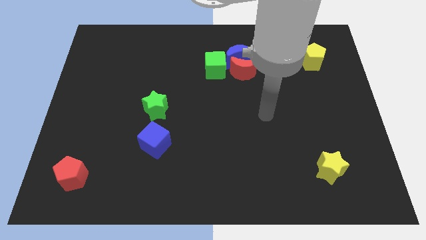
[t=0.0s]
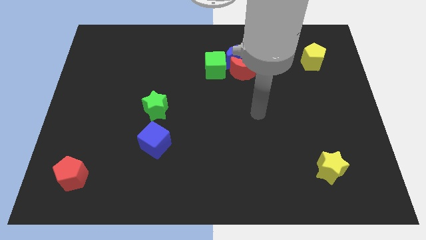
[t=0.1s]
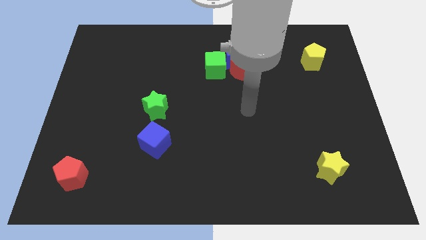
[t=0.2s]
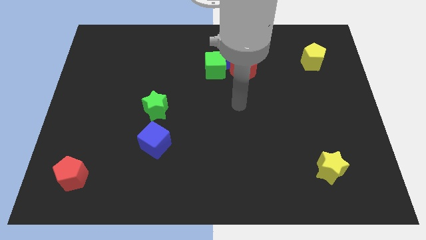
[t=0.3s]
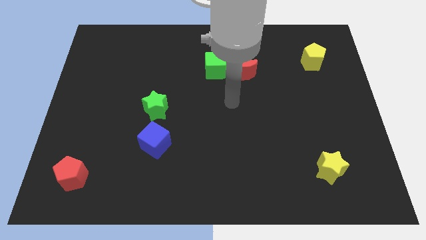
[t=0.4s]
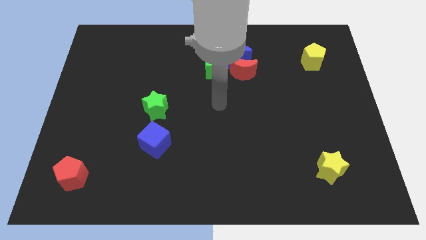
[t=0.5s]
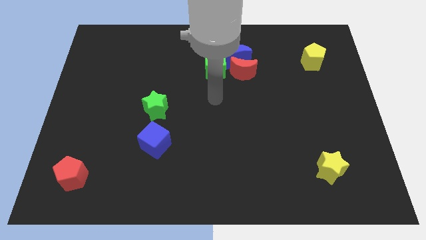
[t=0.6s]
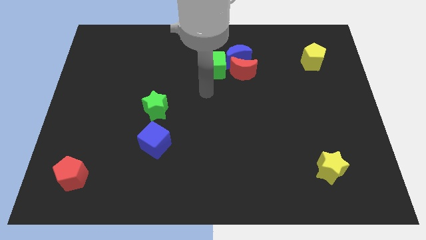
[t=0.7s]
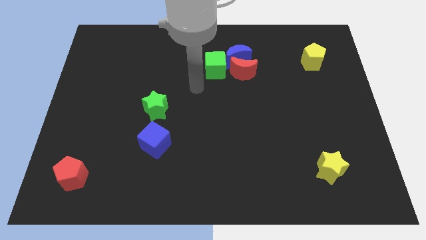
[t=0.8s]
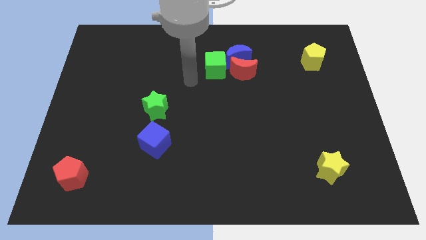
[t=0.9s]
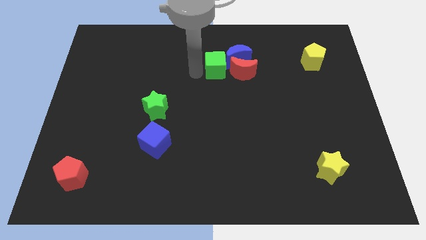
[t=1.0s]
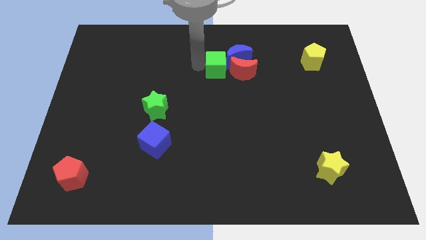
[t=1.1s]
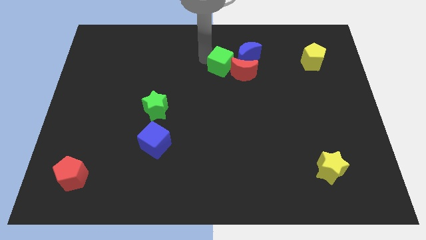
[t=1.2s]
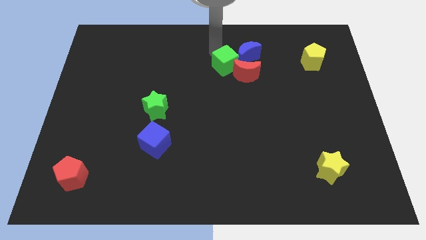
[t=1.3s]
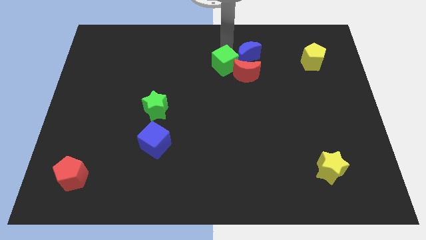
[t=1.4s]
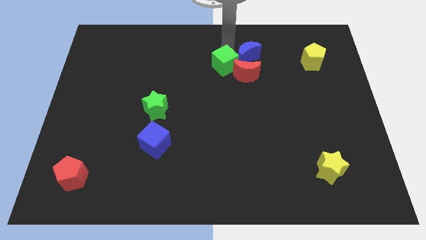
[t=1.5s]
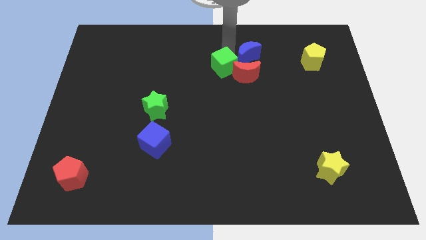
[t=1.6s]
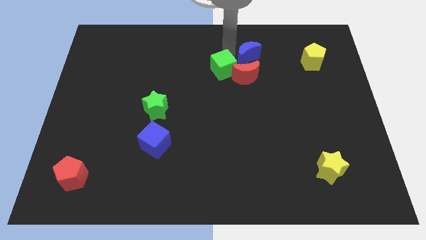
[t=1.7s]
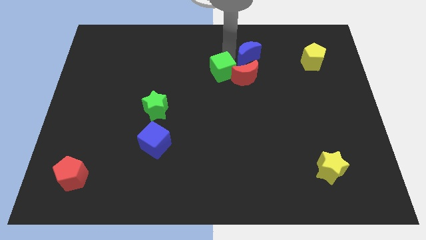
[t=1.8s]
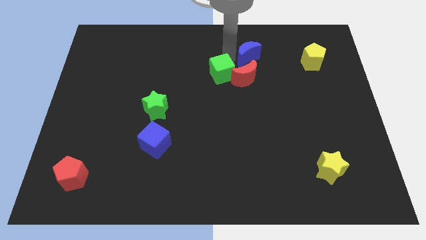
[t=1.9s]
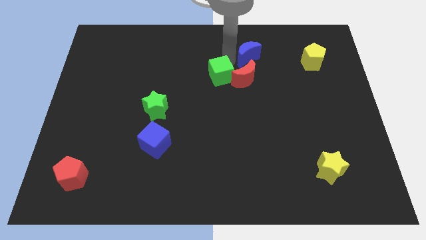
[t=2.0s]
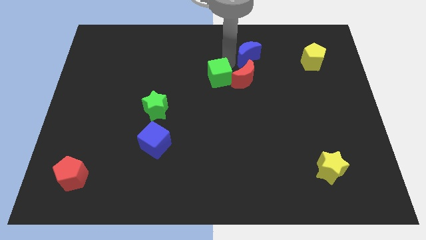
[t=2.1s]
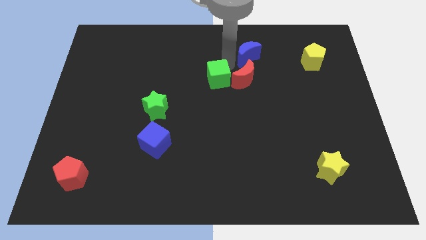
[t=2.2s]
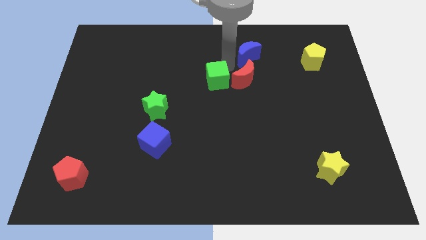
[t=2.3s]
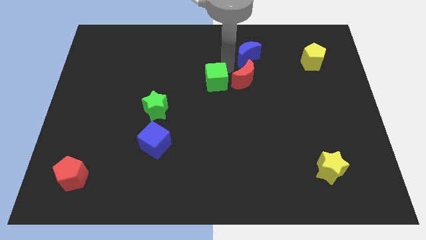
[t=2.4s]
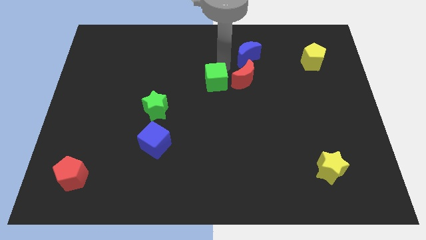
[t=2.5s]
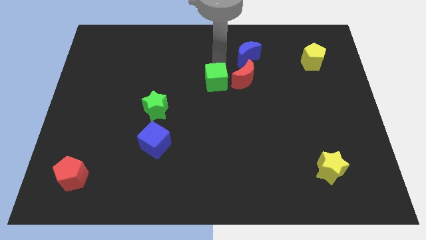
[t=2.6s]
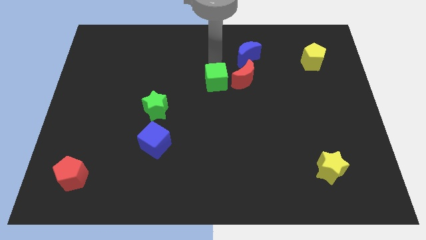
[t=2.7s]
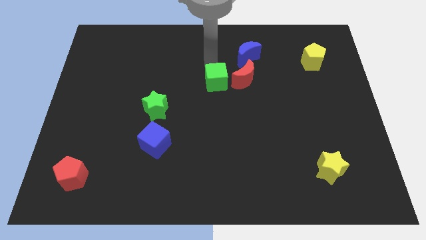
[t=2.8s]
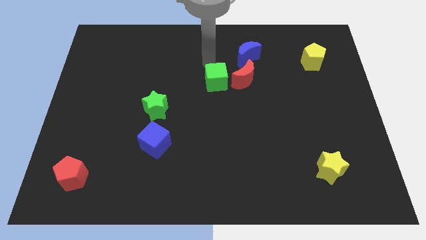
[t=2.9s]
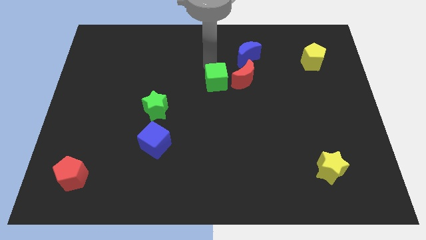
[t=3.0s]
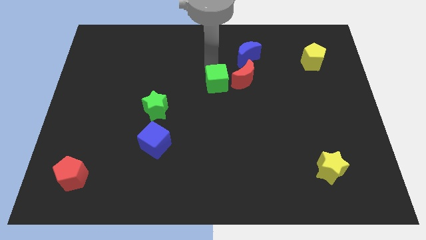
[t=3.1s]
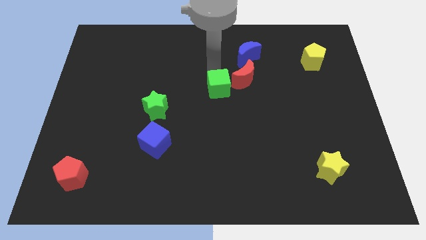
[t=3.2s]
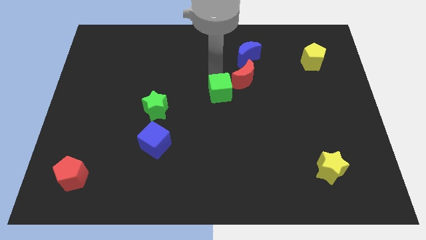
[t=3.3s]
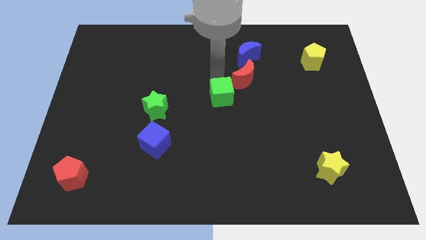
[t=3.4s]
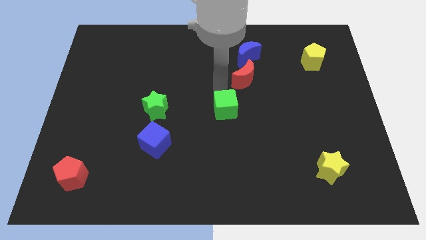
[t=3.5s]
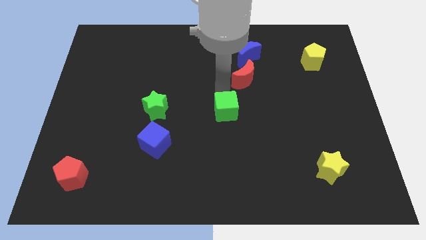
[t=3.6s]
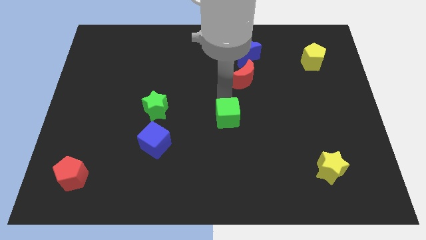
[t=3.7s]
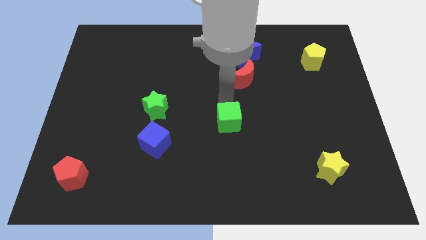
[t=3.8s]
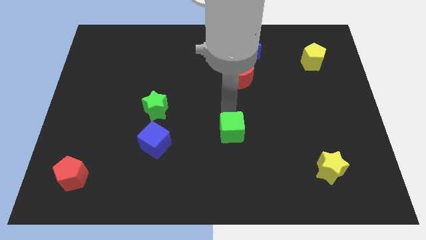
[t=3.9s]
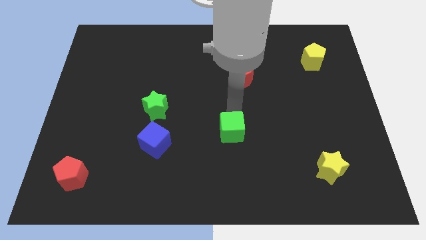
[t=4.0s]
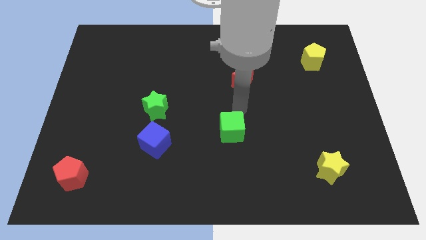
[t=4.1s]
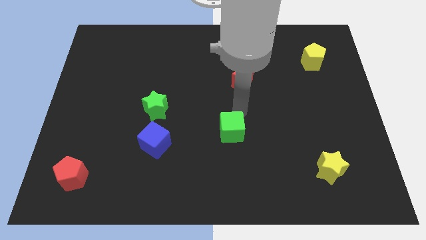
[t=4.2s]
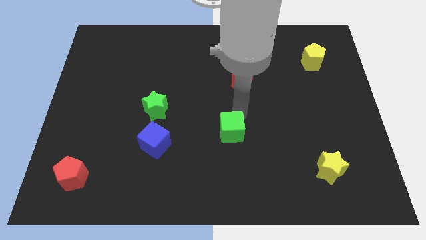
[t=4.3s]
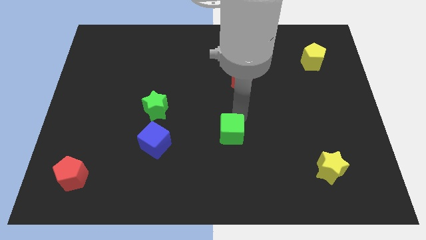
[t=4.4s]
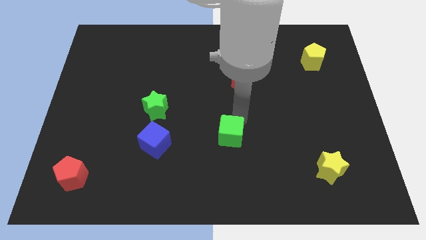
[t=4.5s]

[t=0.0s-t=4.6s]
move the green cube down

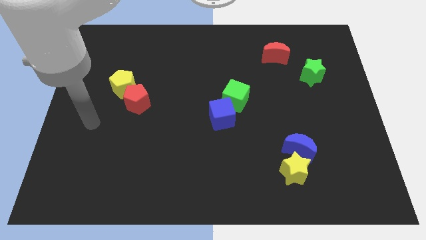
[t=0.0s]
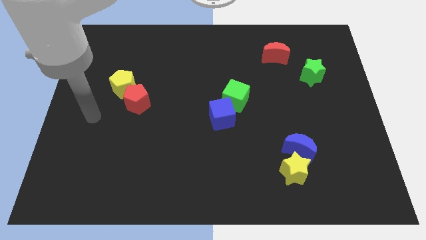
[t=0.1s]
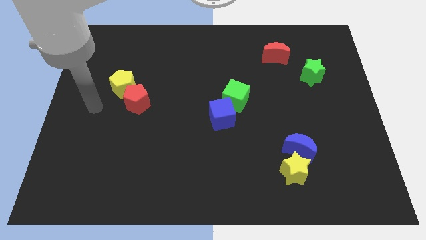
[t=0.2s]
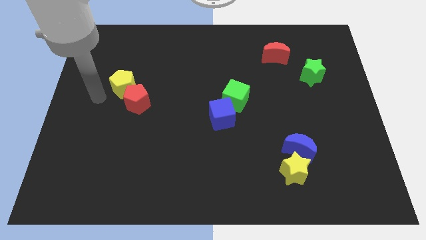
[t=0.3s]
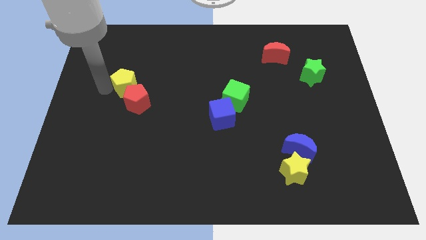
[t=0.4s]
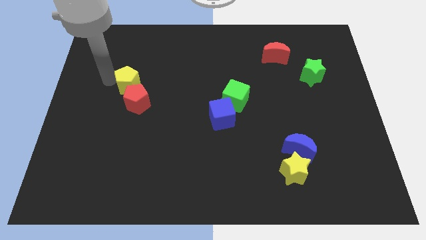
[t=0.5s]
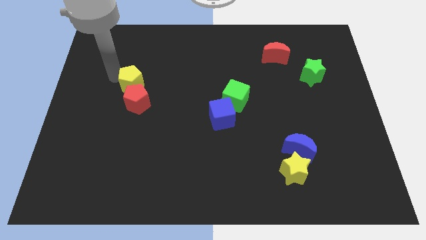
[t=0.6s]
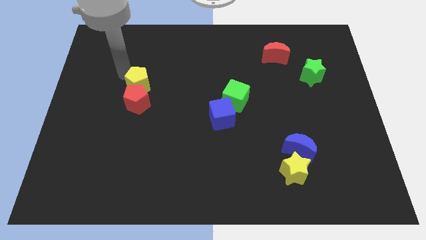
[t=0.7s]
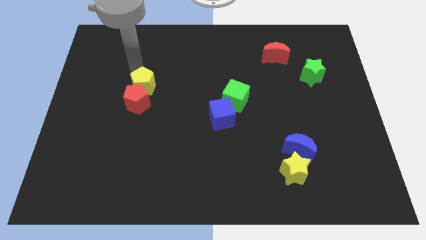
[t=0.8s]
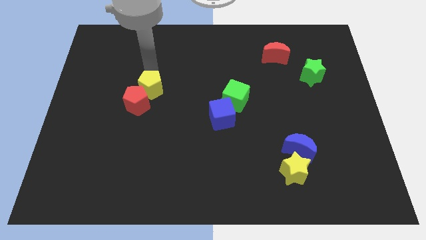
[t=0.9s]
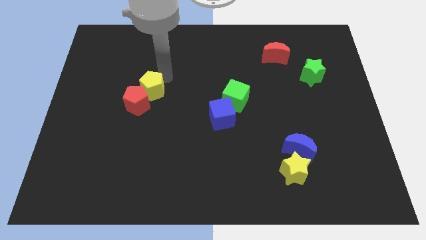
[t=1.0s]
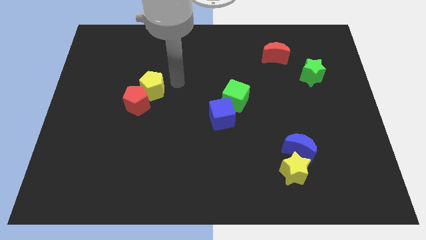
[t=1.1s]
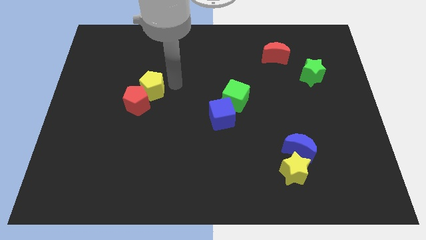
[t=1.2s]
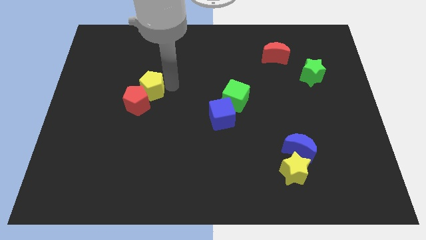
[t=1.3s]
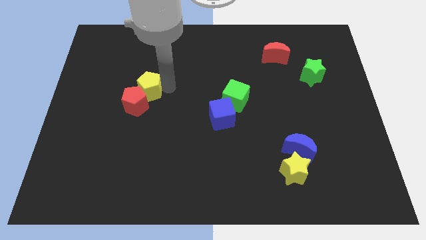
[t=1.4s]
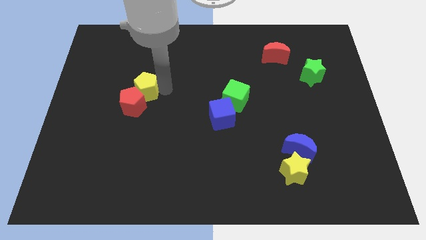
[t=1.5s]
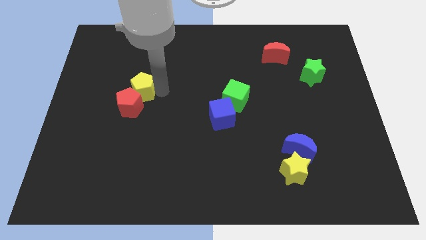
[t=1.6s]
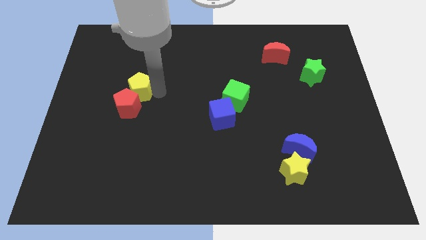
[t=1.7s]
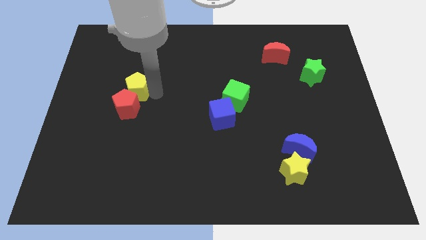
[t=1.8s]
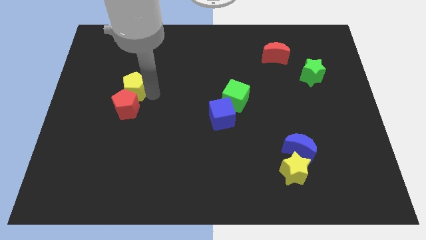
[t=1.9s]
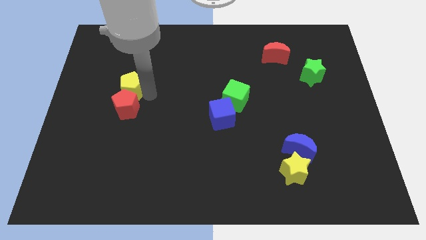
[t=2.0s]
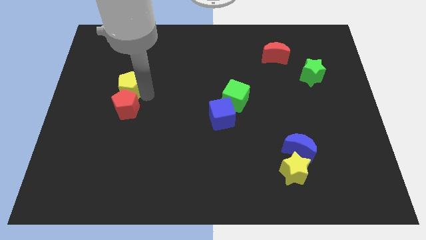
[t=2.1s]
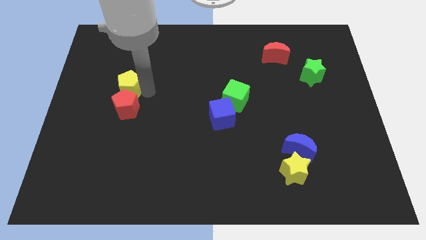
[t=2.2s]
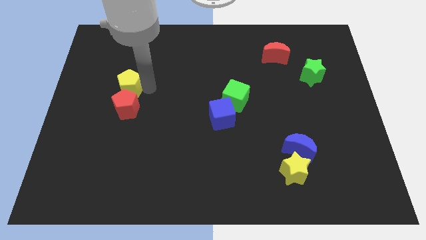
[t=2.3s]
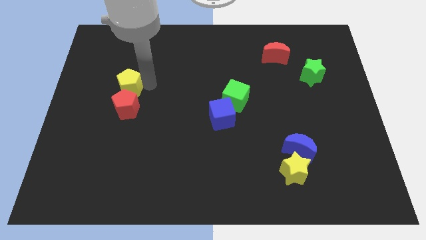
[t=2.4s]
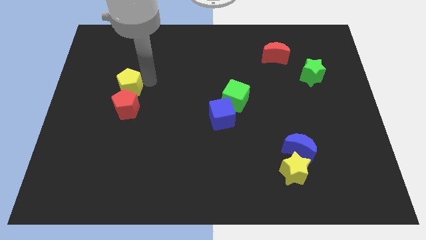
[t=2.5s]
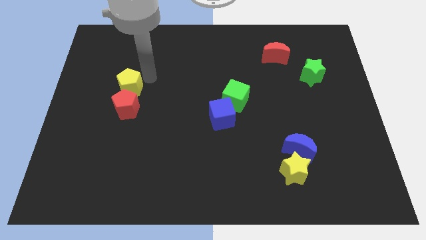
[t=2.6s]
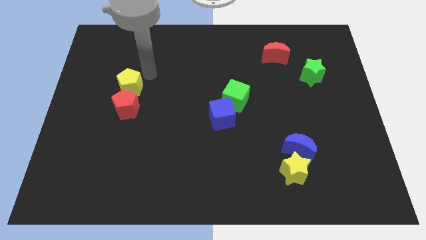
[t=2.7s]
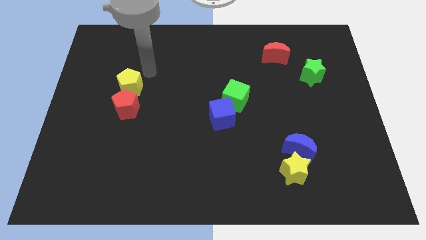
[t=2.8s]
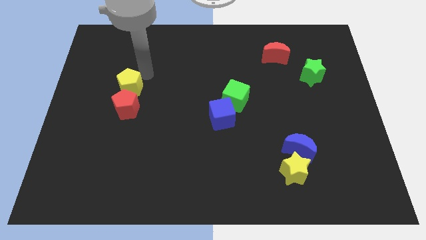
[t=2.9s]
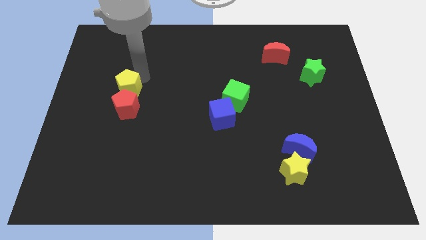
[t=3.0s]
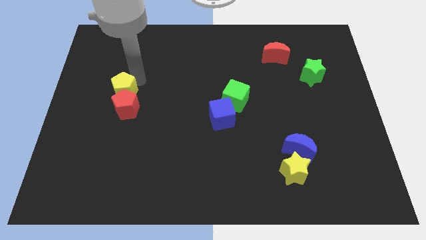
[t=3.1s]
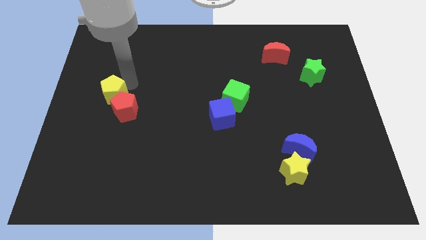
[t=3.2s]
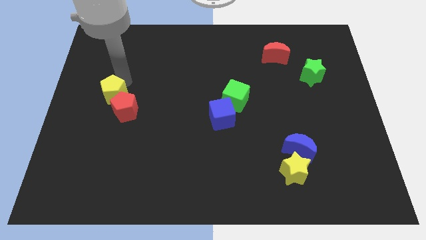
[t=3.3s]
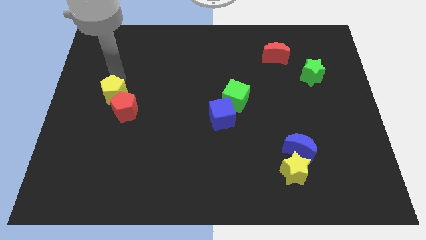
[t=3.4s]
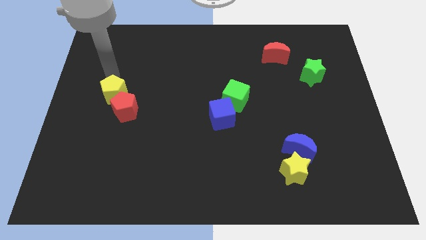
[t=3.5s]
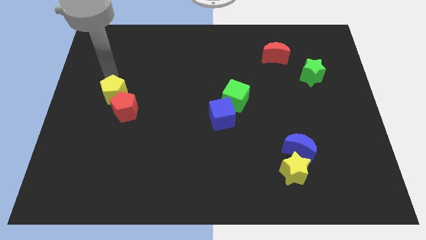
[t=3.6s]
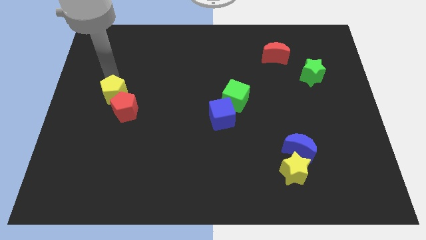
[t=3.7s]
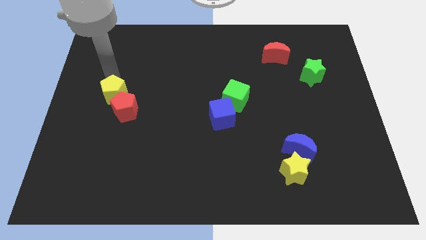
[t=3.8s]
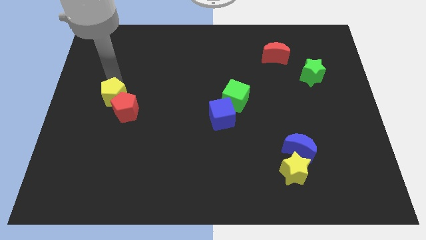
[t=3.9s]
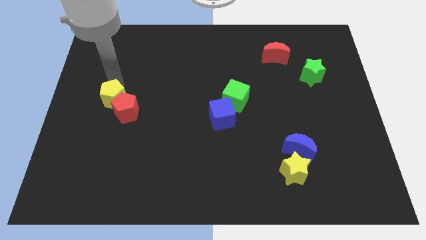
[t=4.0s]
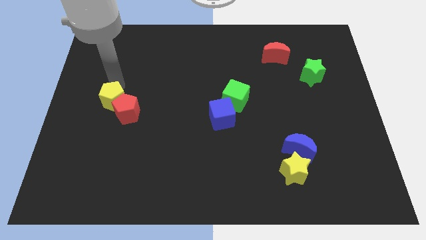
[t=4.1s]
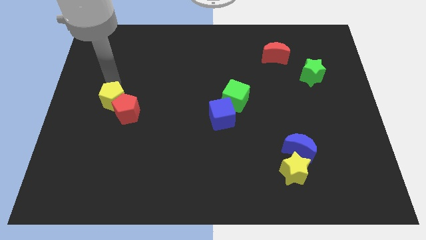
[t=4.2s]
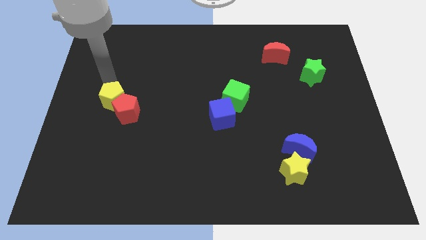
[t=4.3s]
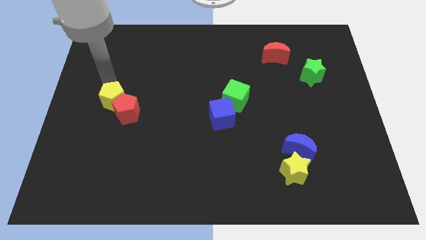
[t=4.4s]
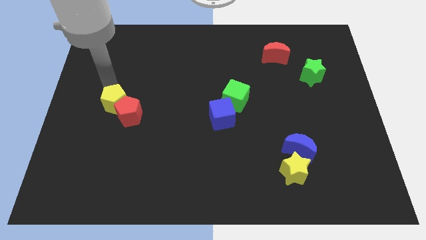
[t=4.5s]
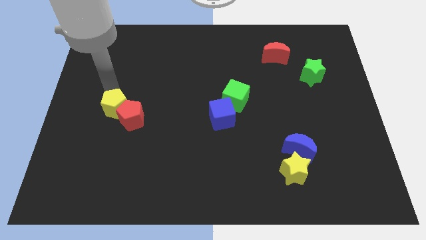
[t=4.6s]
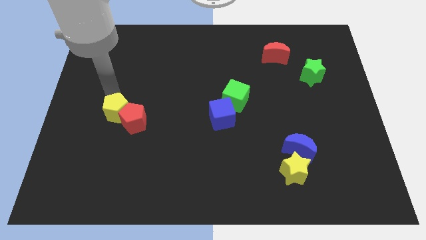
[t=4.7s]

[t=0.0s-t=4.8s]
slide the yellow pentagon a little down
